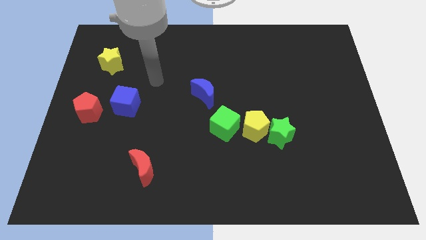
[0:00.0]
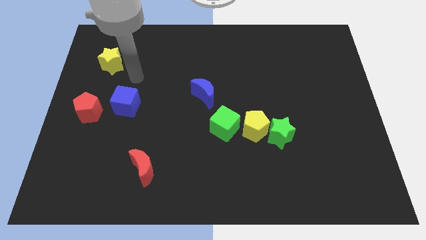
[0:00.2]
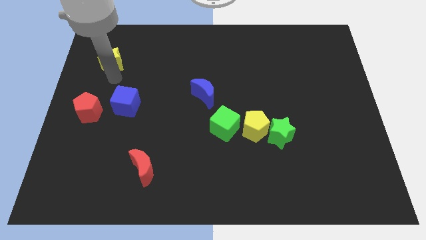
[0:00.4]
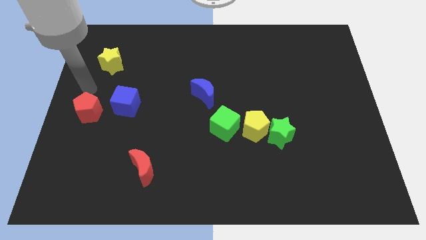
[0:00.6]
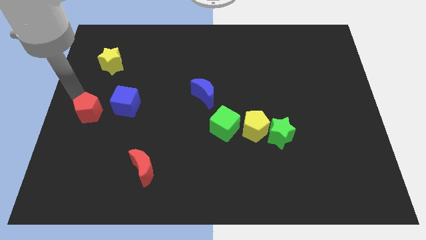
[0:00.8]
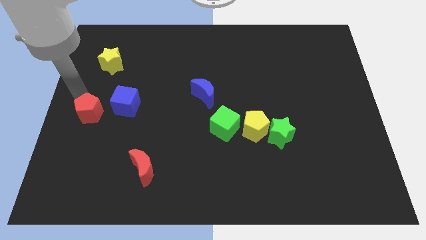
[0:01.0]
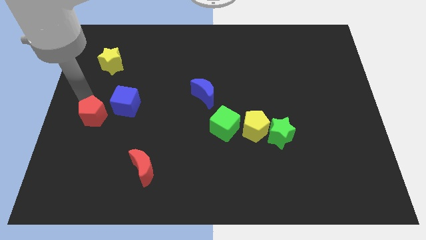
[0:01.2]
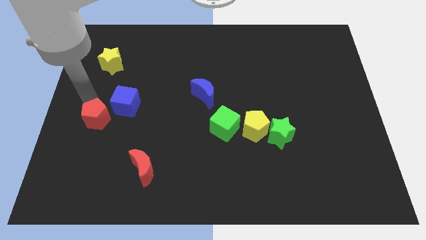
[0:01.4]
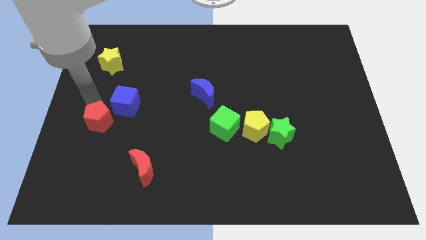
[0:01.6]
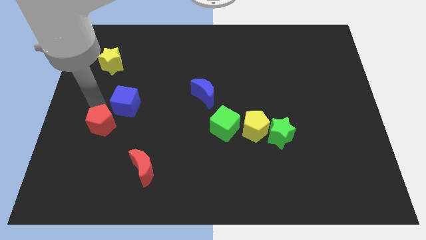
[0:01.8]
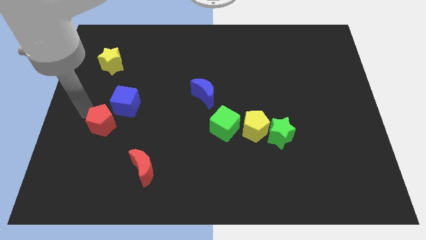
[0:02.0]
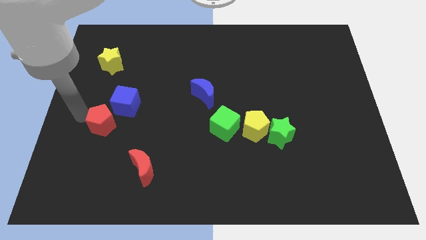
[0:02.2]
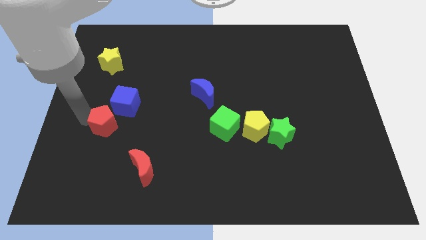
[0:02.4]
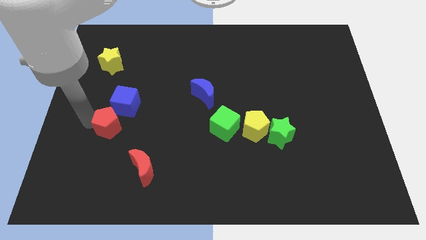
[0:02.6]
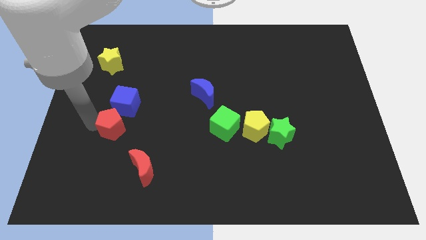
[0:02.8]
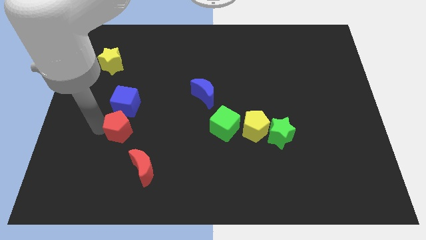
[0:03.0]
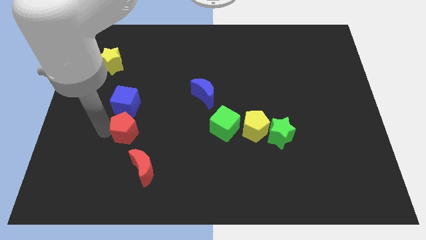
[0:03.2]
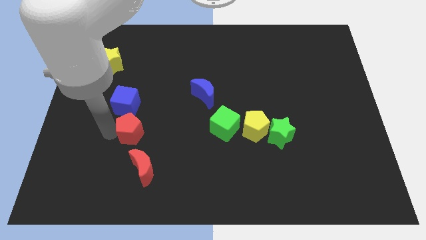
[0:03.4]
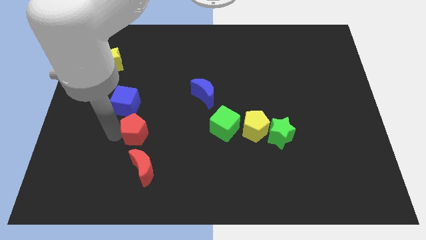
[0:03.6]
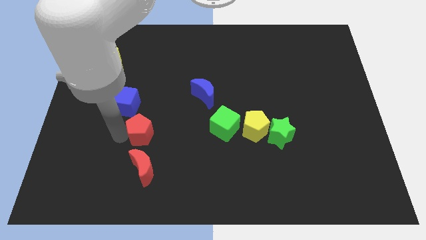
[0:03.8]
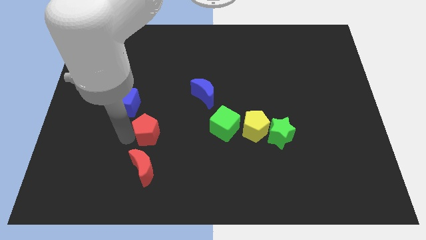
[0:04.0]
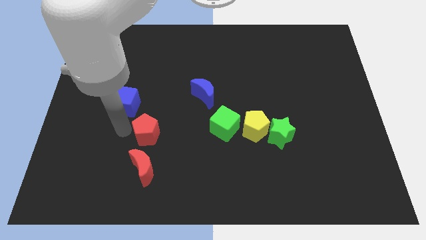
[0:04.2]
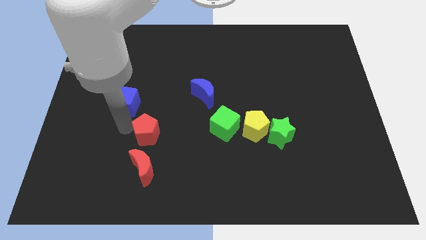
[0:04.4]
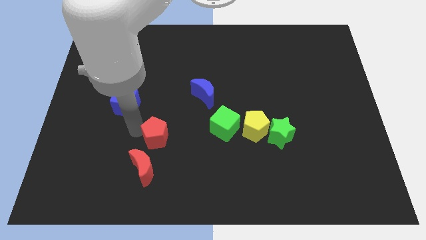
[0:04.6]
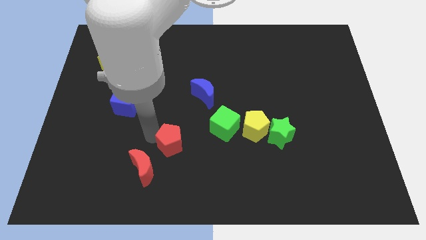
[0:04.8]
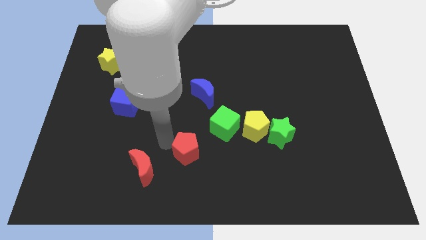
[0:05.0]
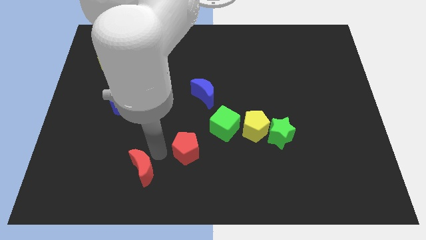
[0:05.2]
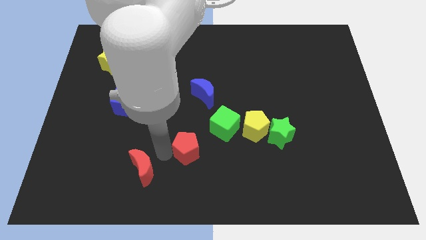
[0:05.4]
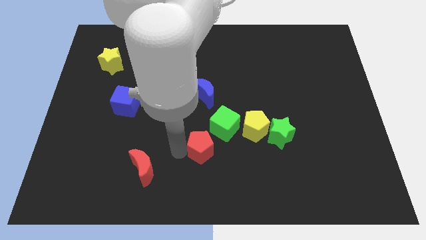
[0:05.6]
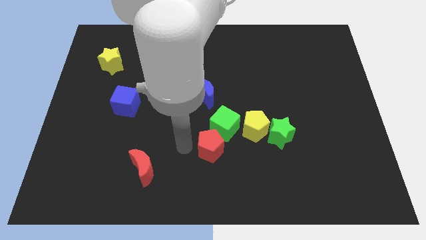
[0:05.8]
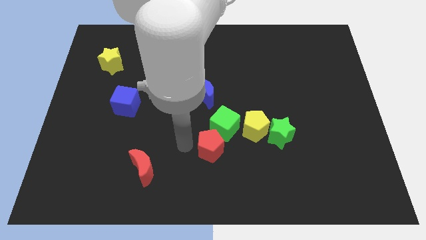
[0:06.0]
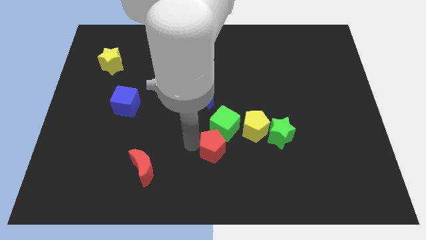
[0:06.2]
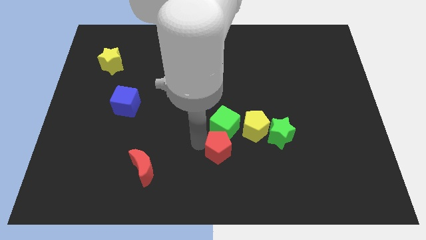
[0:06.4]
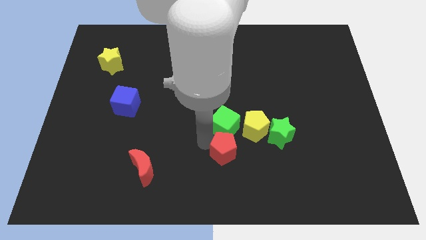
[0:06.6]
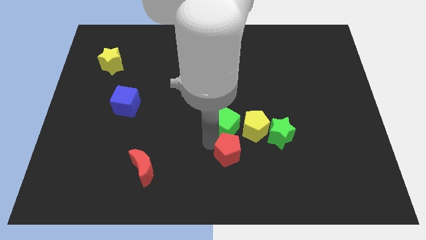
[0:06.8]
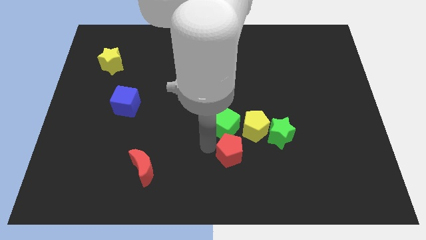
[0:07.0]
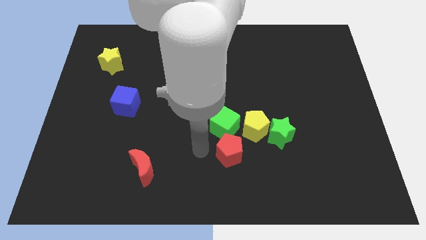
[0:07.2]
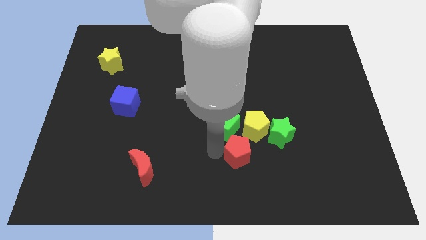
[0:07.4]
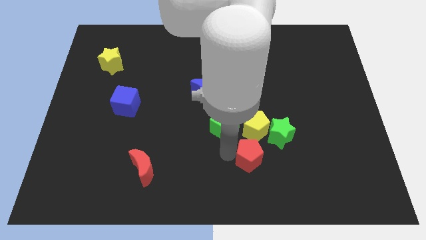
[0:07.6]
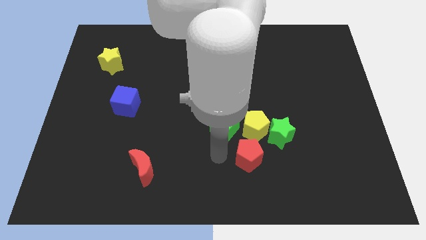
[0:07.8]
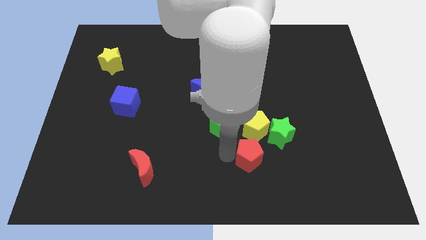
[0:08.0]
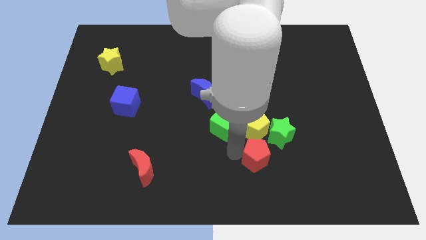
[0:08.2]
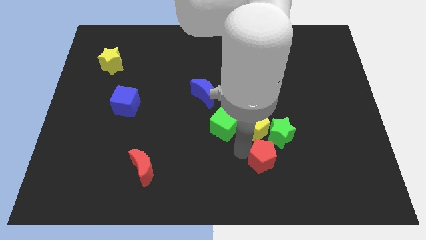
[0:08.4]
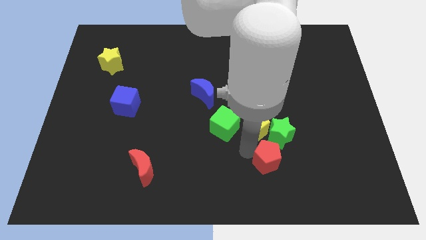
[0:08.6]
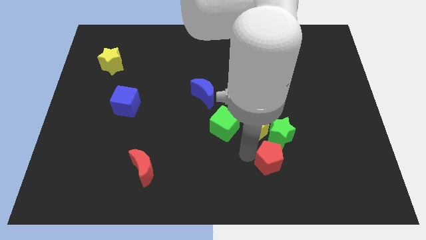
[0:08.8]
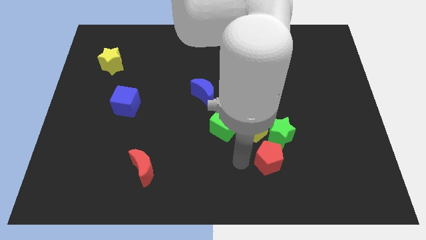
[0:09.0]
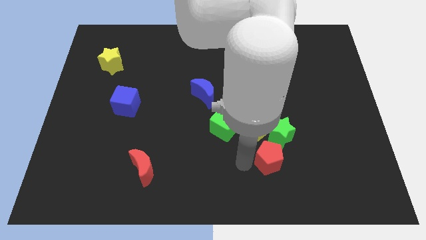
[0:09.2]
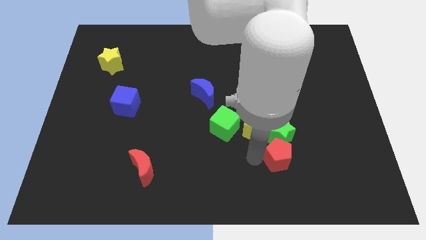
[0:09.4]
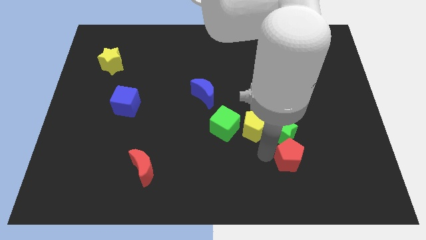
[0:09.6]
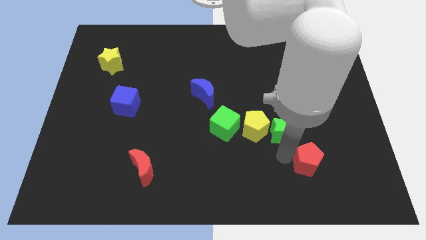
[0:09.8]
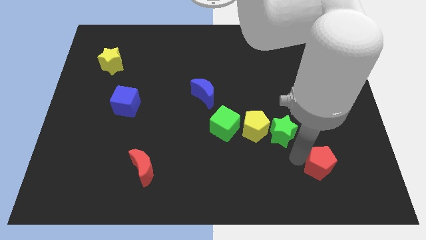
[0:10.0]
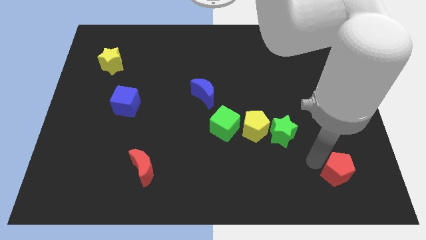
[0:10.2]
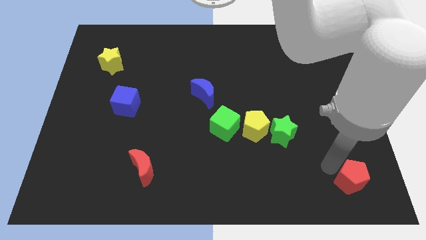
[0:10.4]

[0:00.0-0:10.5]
move the red pentagon to the bottom right of the board

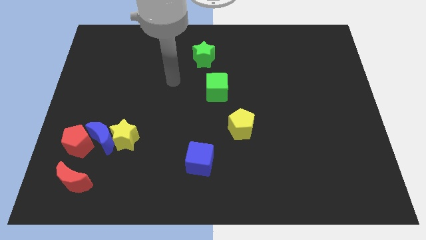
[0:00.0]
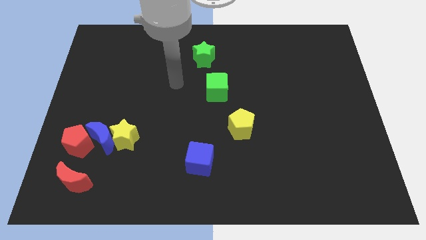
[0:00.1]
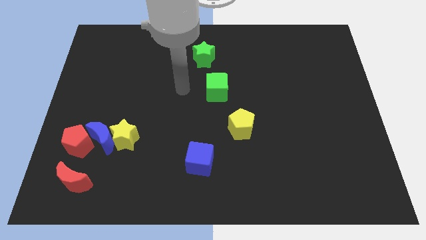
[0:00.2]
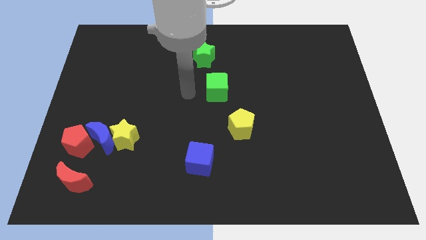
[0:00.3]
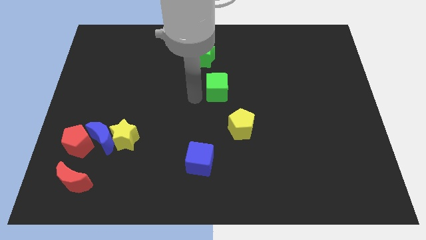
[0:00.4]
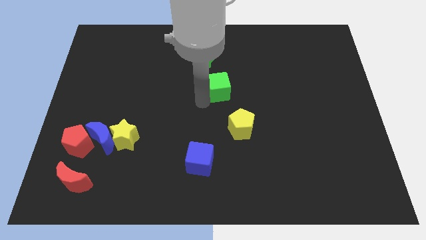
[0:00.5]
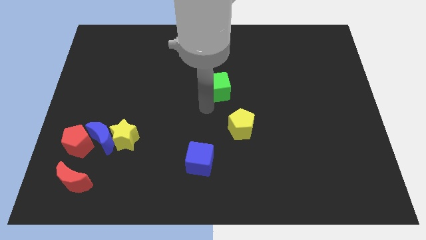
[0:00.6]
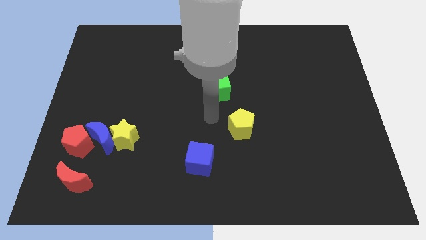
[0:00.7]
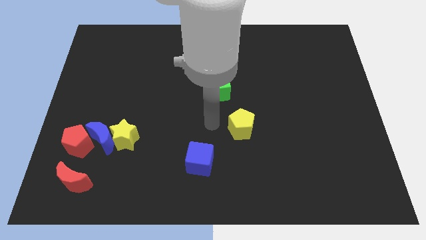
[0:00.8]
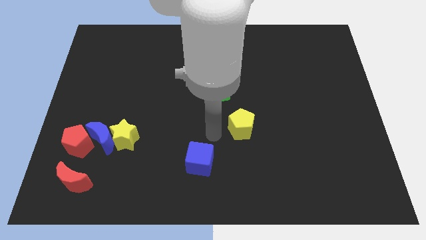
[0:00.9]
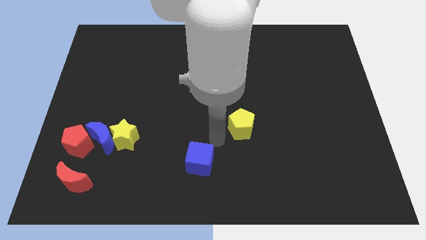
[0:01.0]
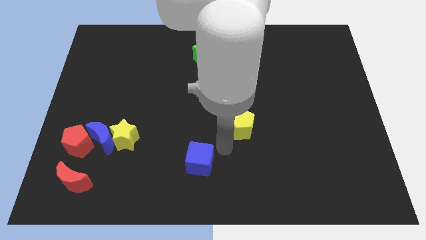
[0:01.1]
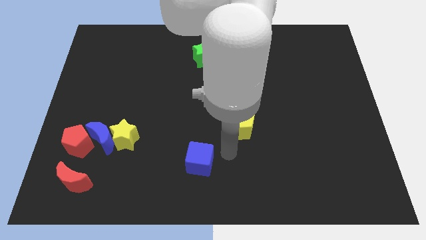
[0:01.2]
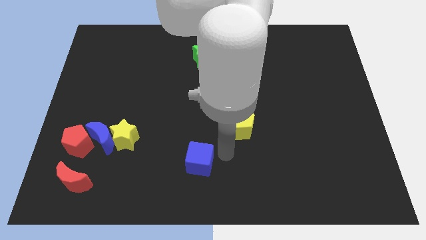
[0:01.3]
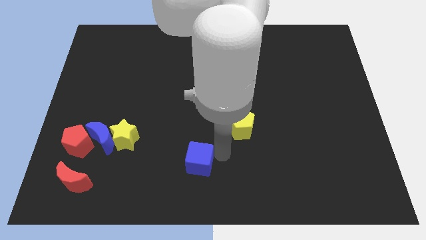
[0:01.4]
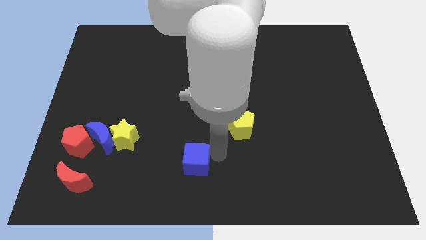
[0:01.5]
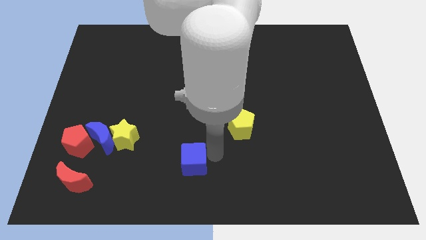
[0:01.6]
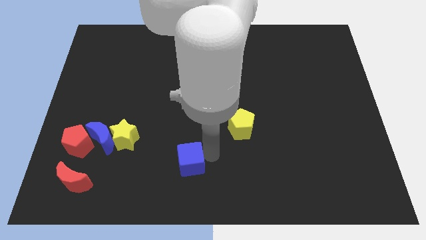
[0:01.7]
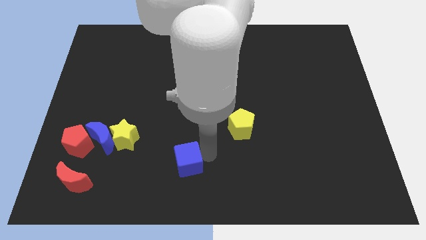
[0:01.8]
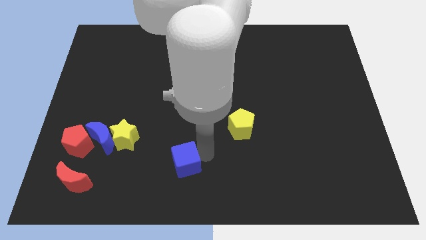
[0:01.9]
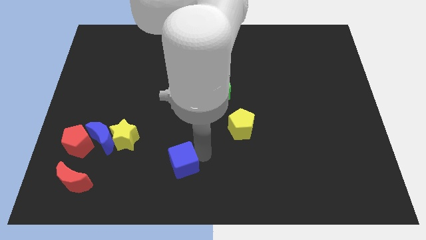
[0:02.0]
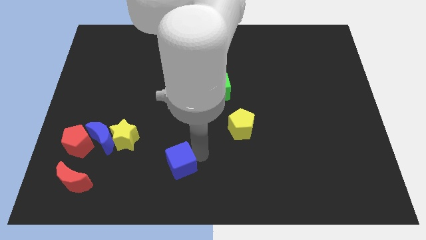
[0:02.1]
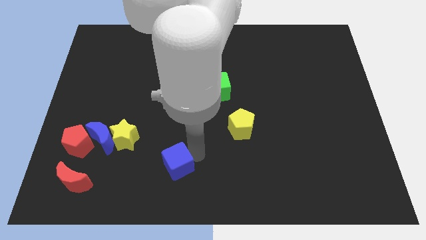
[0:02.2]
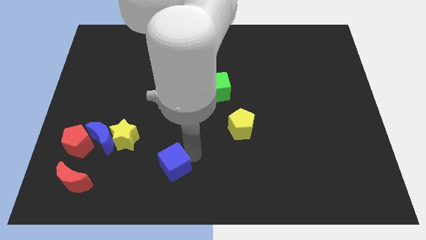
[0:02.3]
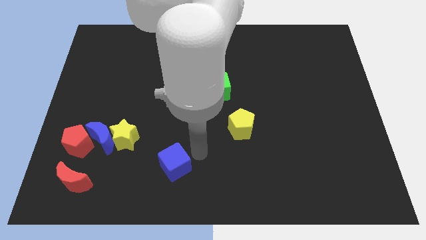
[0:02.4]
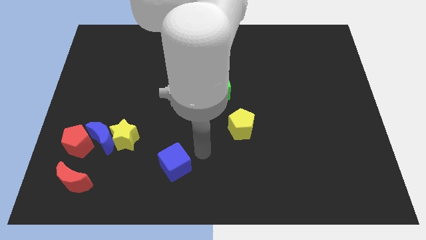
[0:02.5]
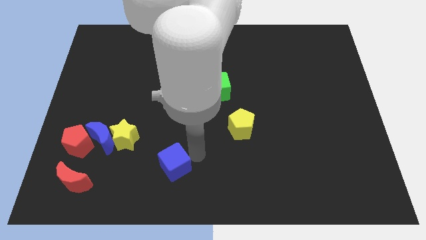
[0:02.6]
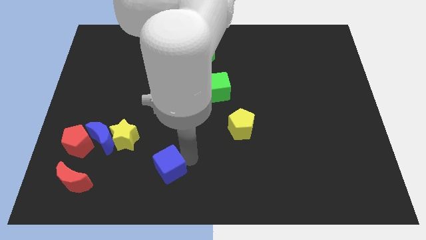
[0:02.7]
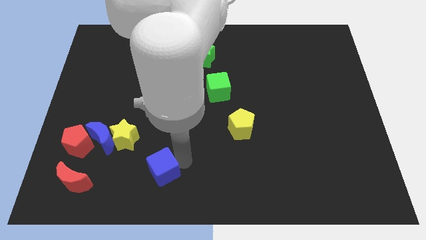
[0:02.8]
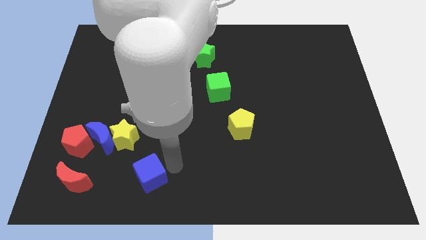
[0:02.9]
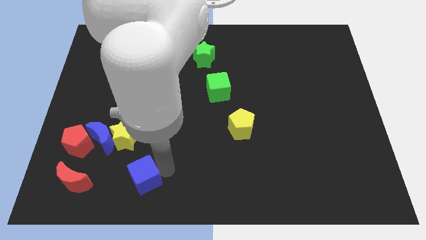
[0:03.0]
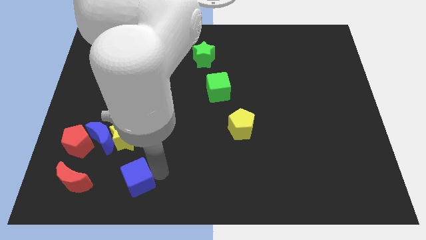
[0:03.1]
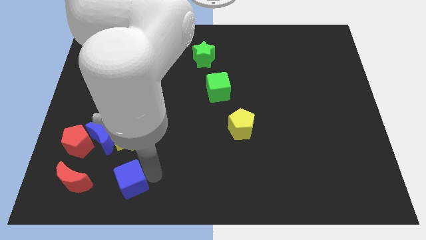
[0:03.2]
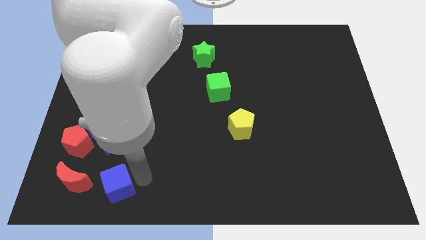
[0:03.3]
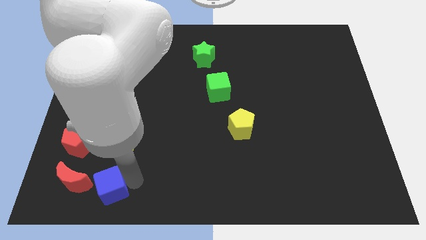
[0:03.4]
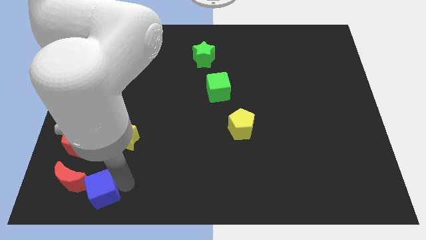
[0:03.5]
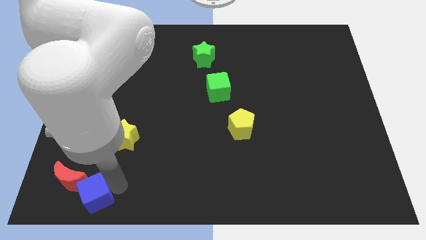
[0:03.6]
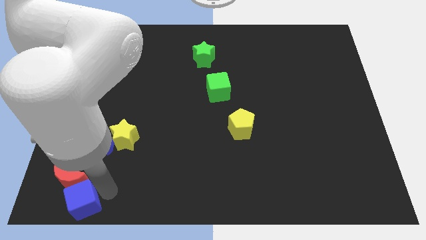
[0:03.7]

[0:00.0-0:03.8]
slide the blue cube to the bottom left
